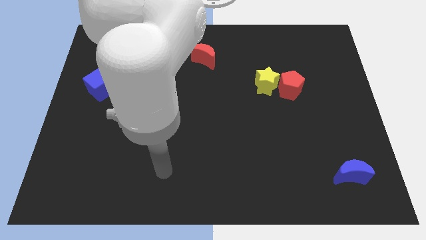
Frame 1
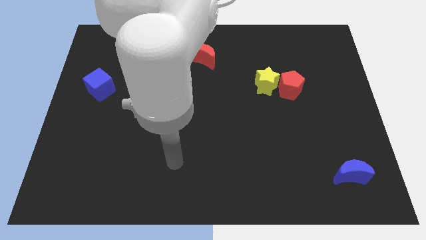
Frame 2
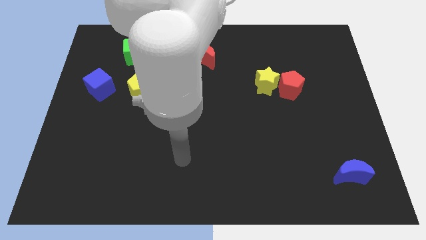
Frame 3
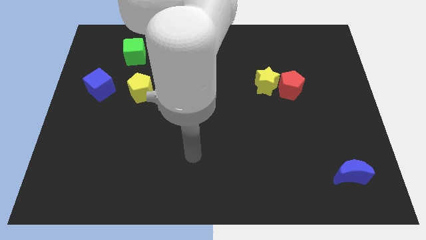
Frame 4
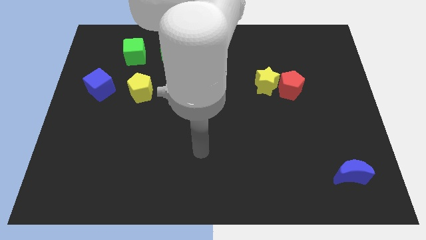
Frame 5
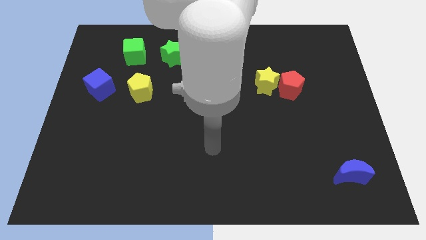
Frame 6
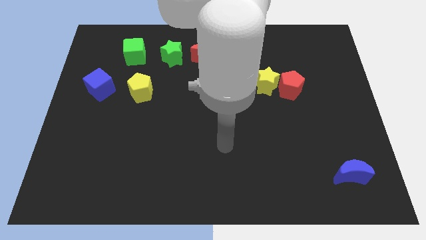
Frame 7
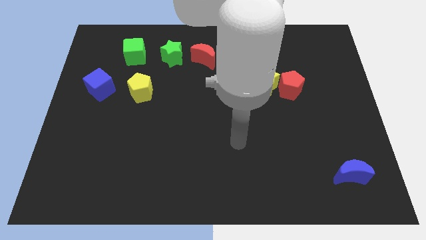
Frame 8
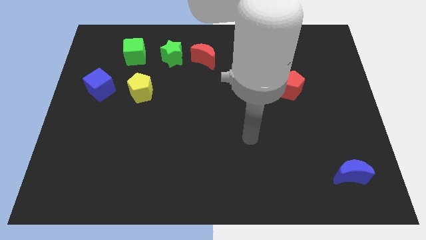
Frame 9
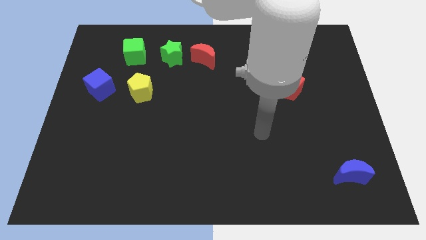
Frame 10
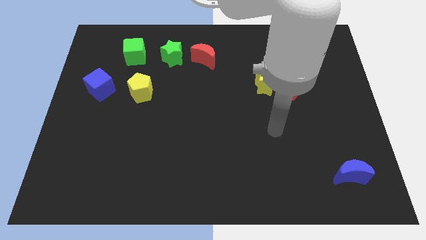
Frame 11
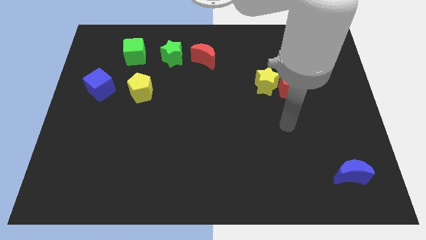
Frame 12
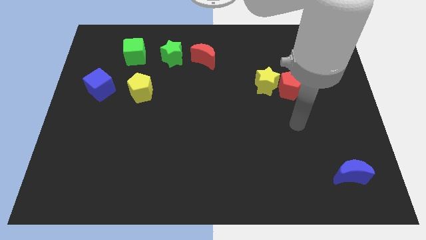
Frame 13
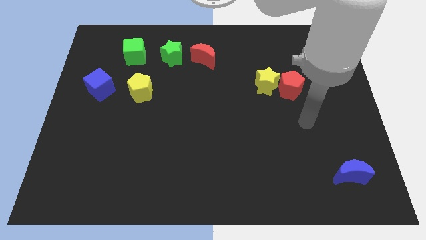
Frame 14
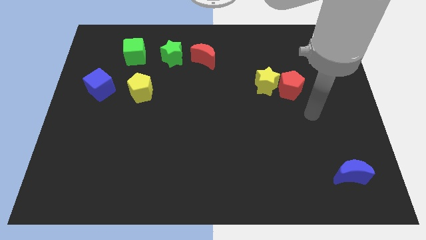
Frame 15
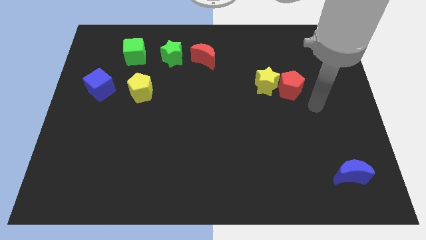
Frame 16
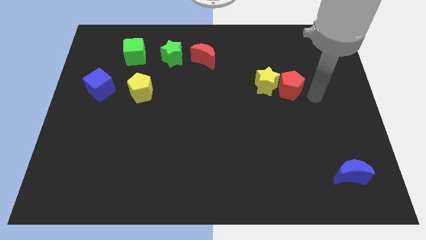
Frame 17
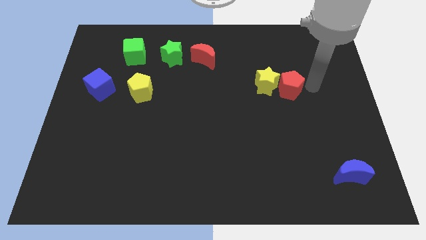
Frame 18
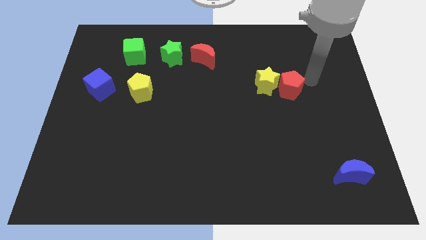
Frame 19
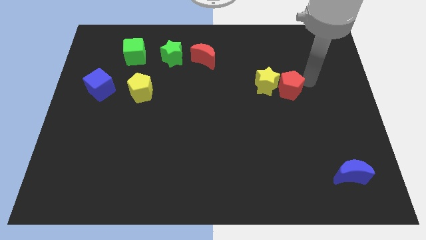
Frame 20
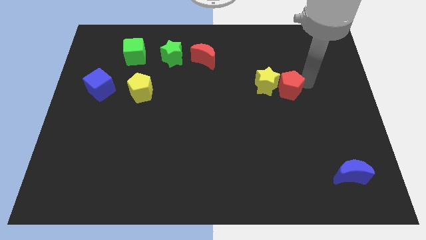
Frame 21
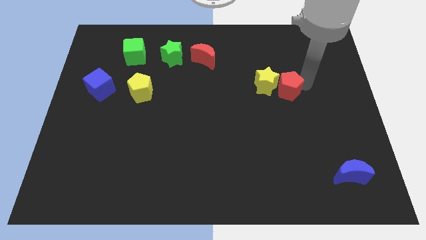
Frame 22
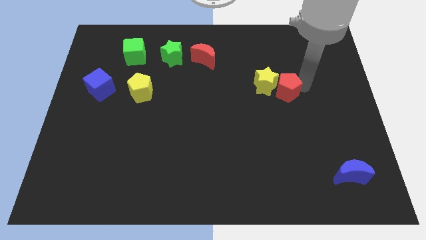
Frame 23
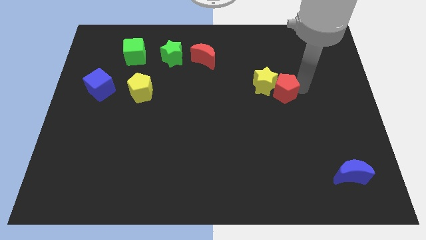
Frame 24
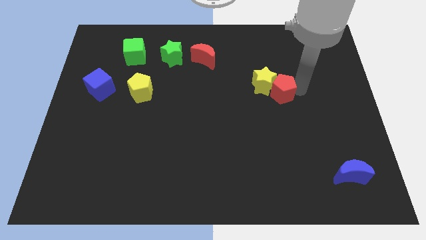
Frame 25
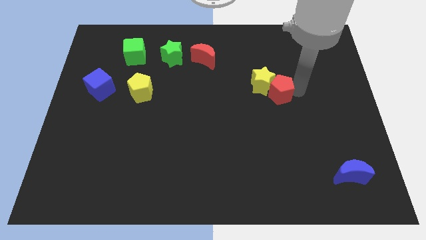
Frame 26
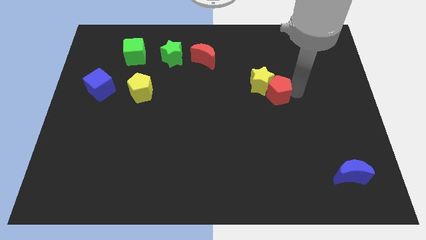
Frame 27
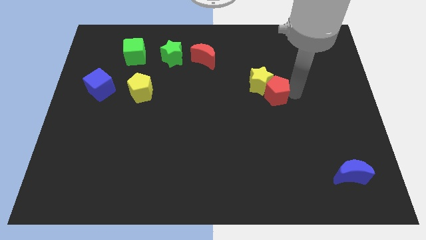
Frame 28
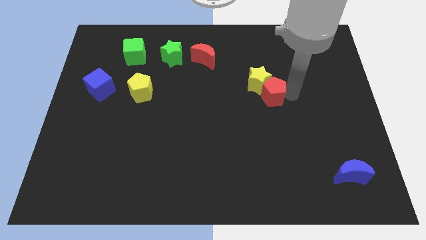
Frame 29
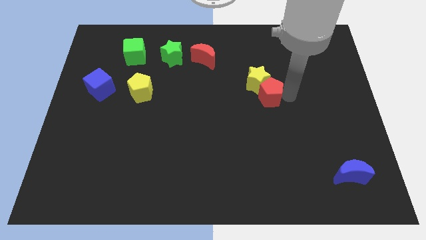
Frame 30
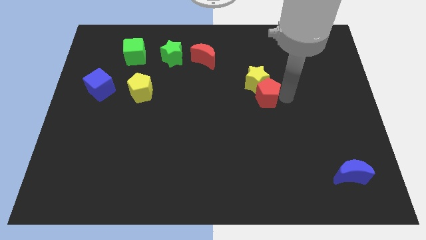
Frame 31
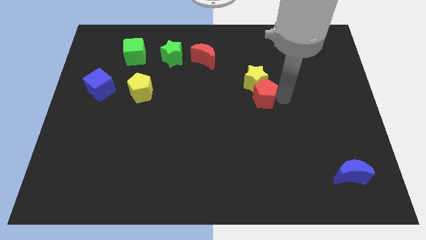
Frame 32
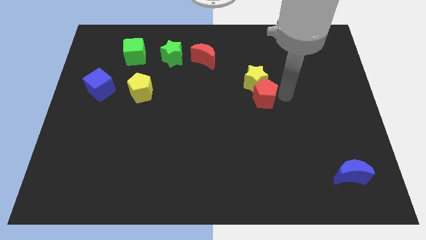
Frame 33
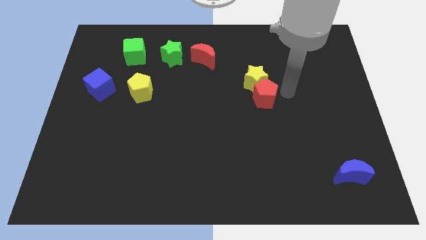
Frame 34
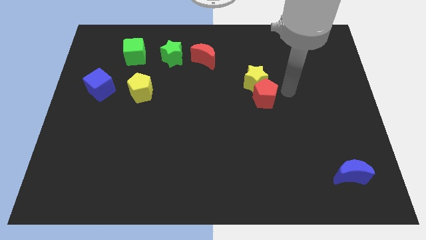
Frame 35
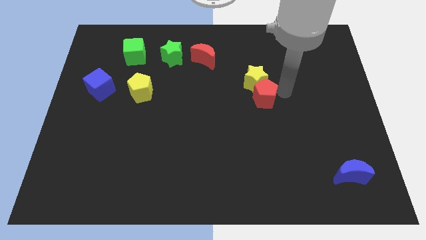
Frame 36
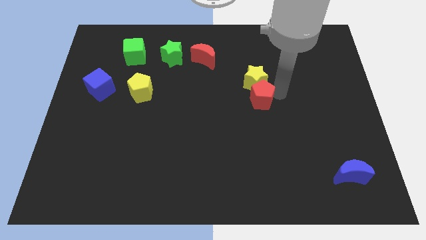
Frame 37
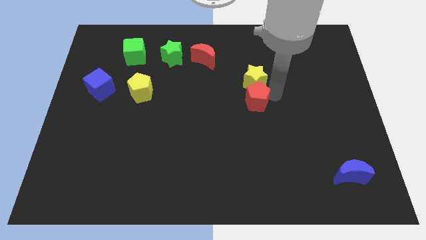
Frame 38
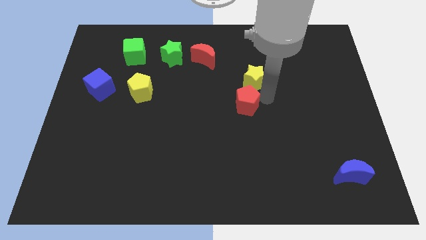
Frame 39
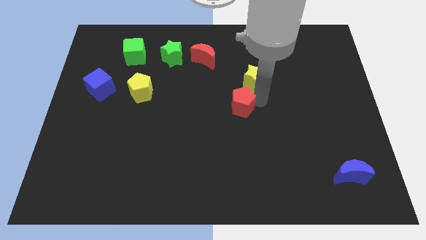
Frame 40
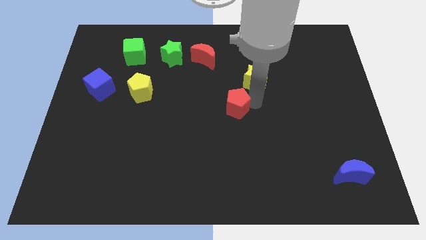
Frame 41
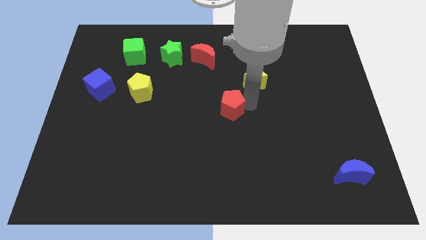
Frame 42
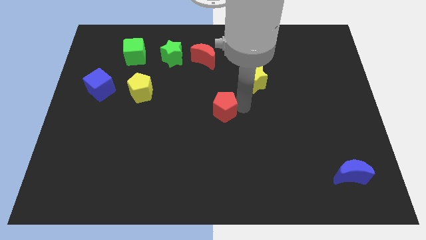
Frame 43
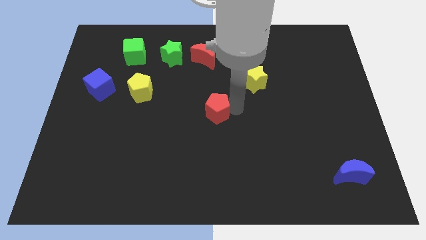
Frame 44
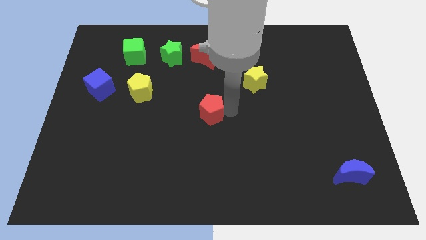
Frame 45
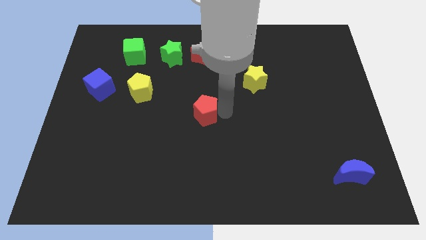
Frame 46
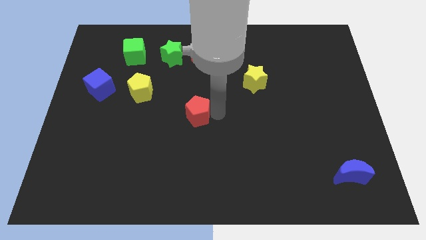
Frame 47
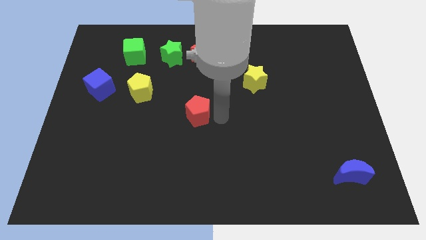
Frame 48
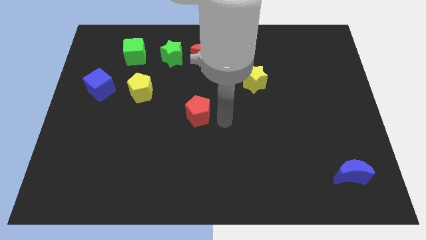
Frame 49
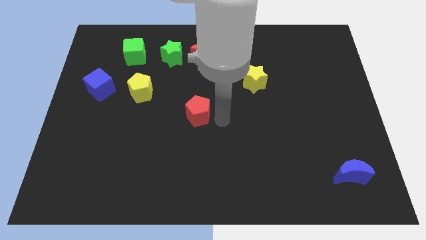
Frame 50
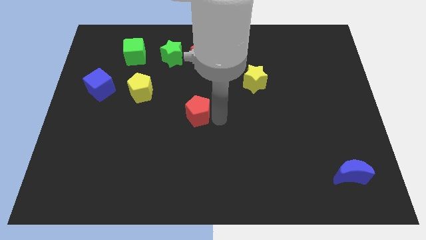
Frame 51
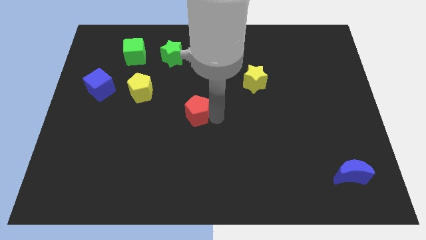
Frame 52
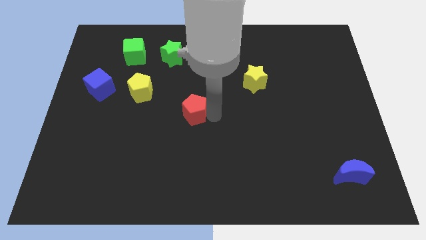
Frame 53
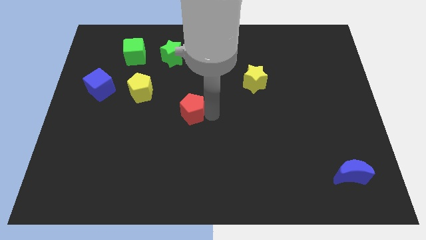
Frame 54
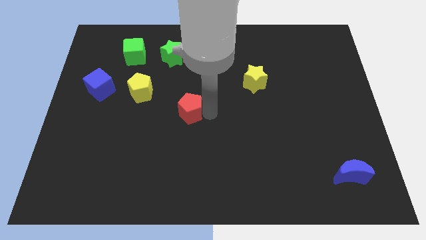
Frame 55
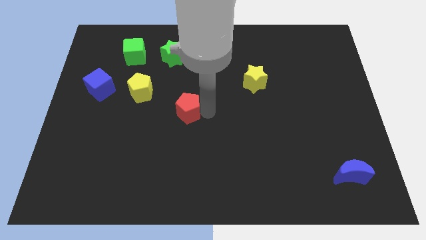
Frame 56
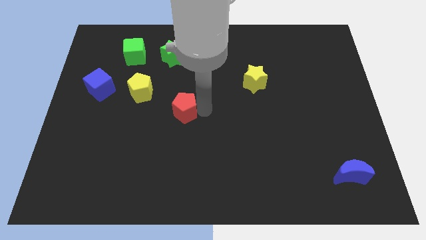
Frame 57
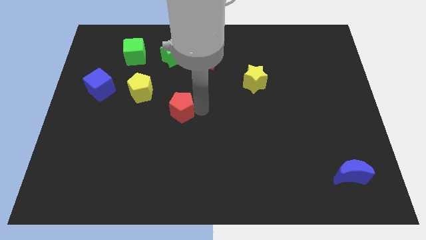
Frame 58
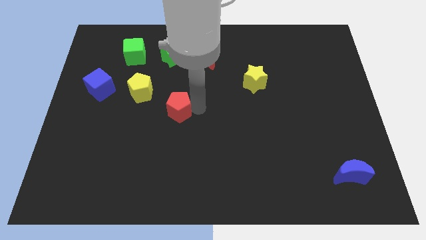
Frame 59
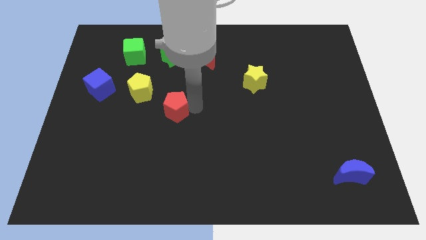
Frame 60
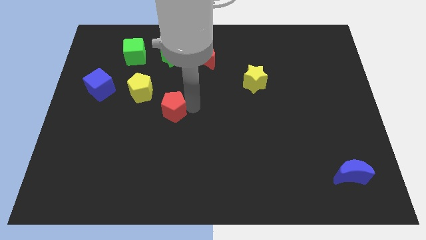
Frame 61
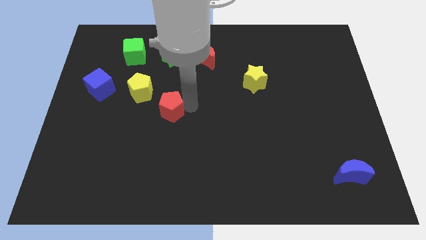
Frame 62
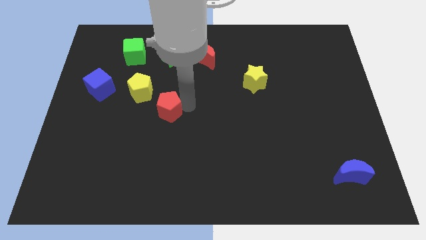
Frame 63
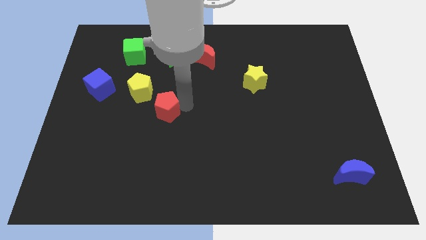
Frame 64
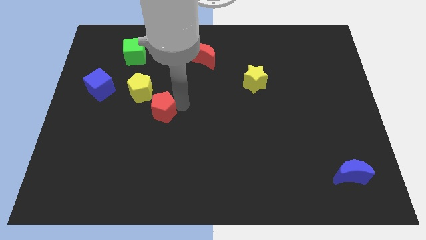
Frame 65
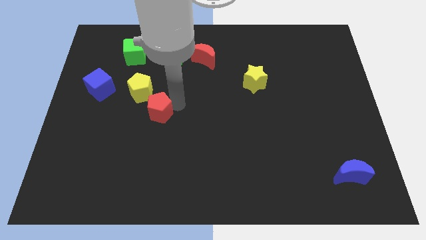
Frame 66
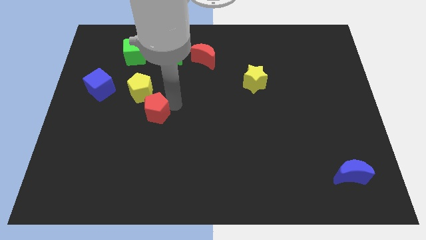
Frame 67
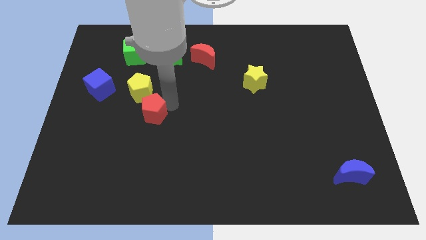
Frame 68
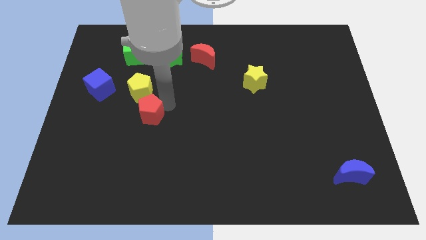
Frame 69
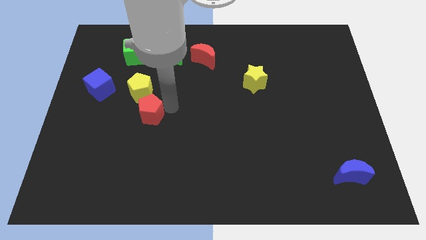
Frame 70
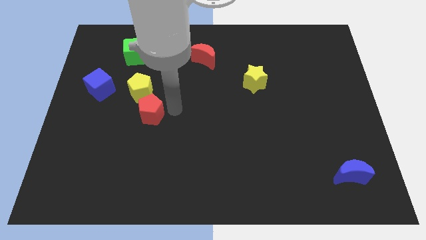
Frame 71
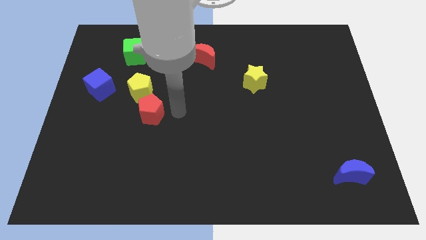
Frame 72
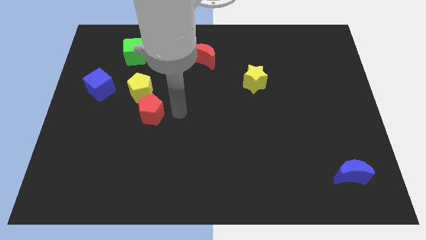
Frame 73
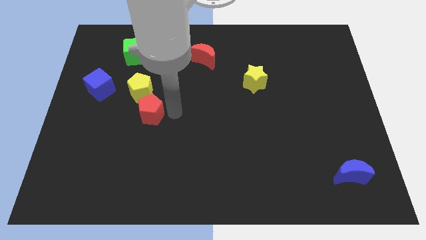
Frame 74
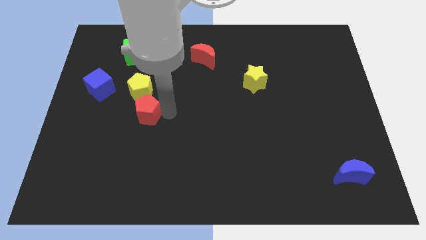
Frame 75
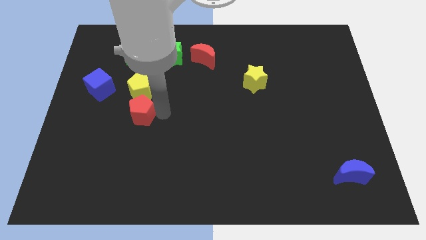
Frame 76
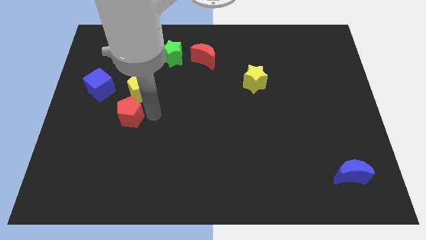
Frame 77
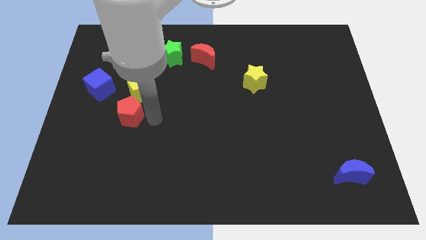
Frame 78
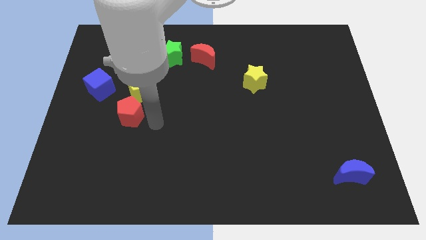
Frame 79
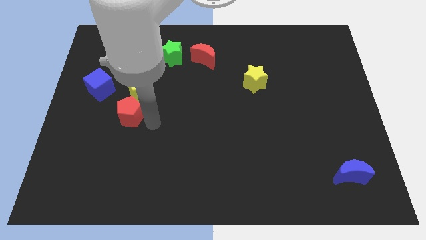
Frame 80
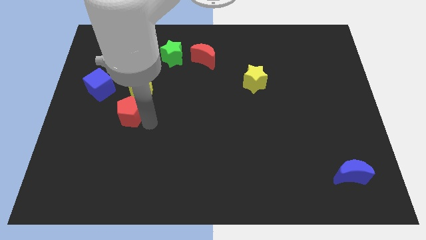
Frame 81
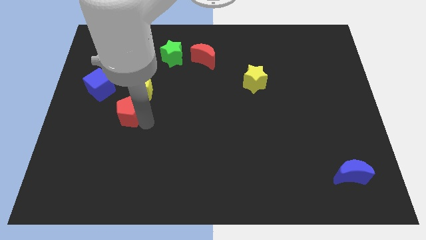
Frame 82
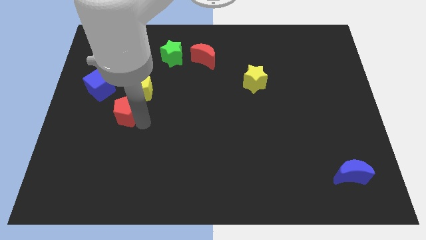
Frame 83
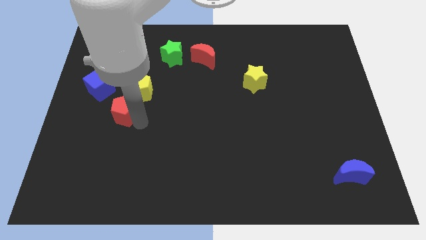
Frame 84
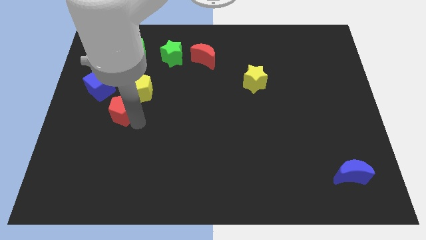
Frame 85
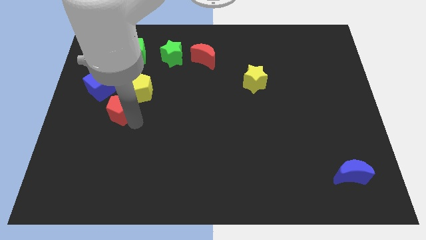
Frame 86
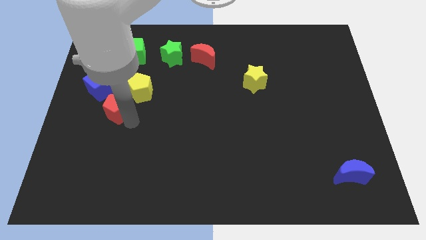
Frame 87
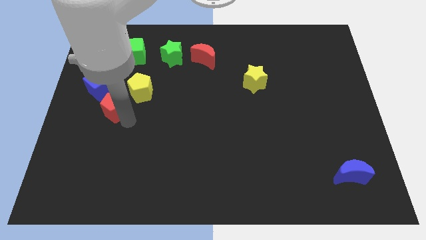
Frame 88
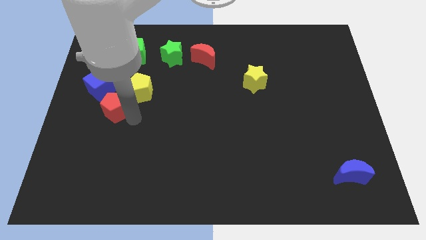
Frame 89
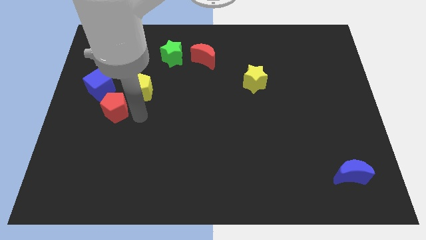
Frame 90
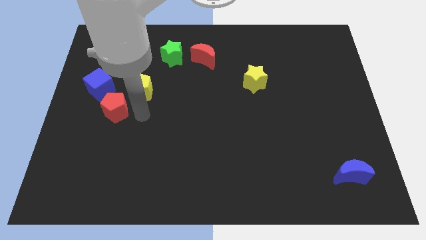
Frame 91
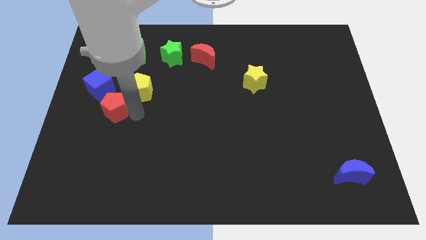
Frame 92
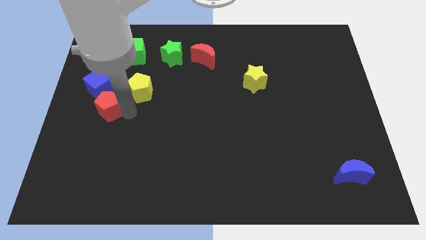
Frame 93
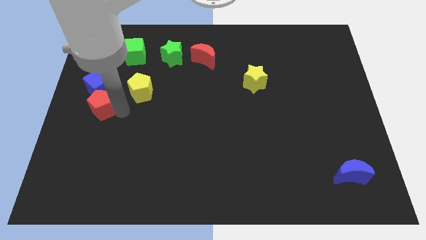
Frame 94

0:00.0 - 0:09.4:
move the red pentagon to the center left
